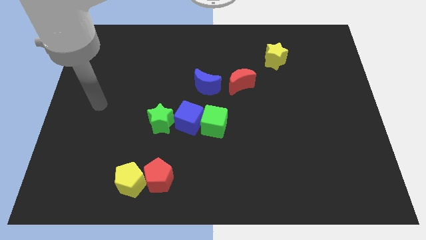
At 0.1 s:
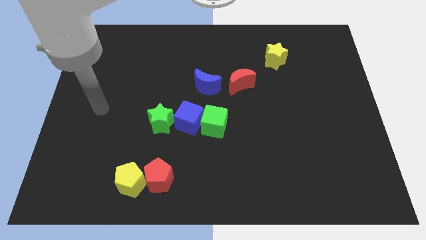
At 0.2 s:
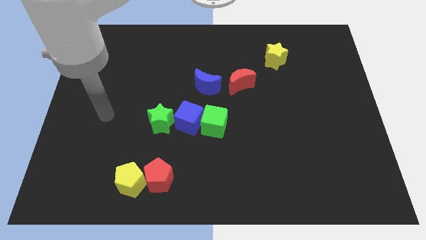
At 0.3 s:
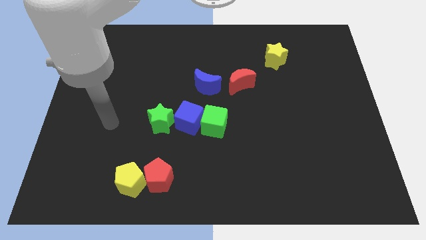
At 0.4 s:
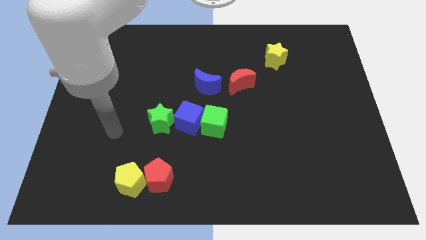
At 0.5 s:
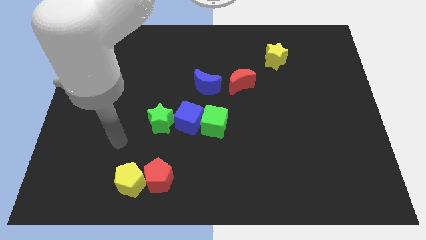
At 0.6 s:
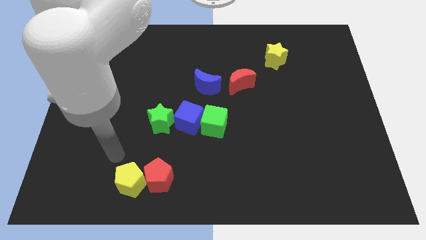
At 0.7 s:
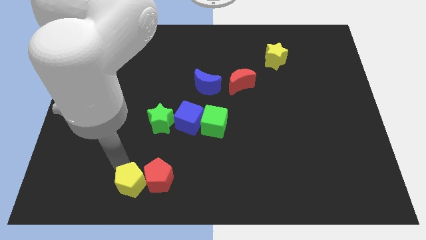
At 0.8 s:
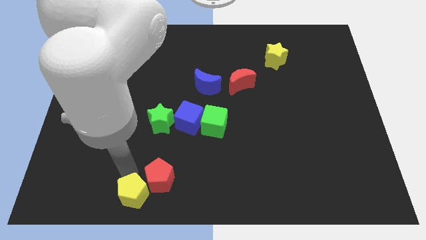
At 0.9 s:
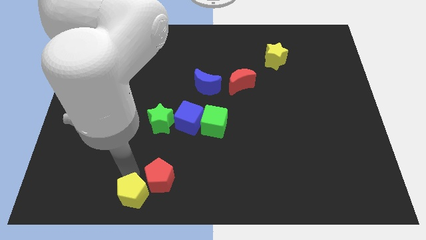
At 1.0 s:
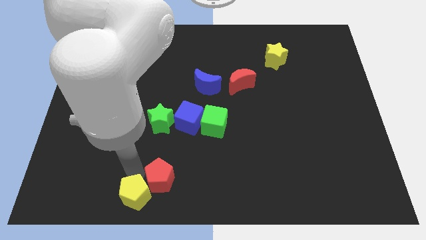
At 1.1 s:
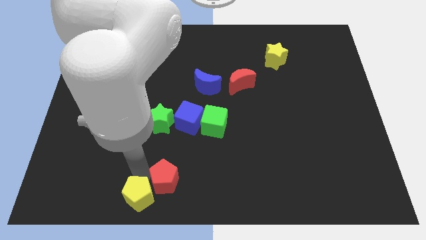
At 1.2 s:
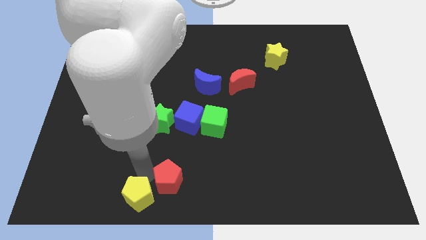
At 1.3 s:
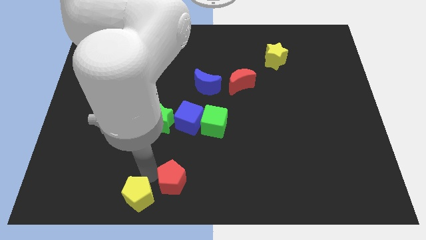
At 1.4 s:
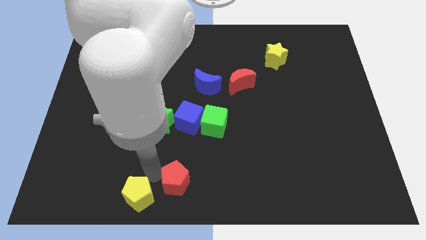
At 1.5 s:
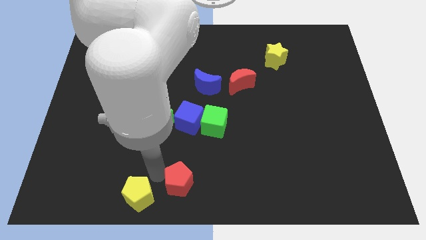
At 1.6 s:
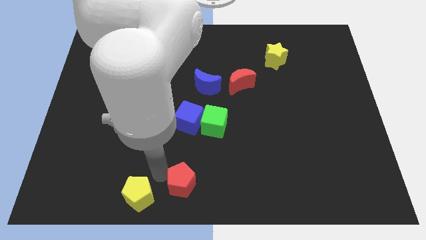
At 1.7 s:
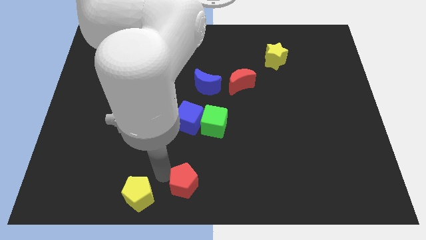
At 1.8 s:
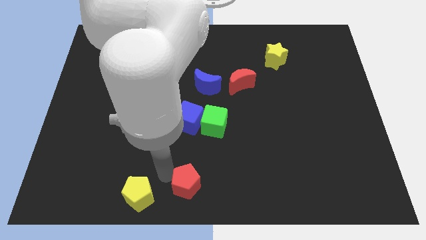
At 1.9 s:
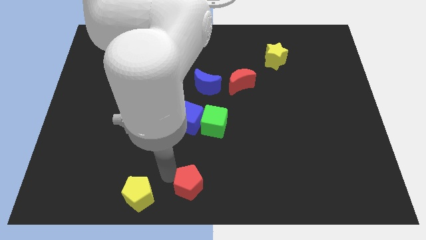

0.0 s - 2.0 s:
separate the red pentagon from the yellow pentagon

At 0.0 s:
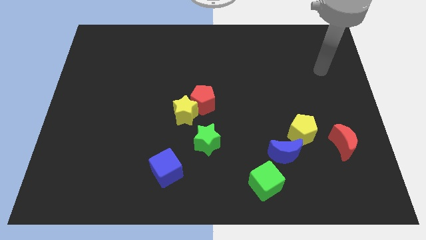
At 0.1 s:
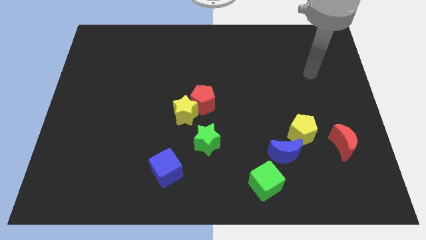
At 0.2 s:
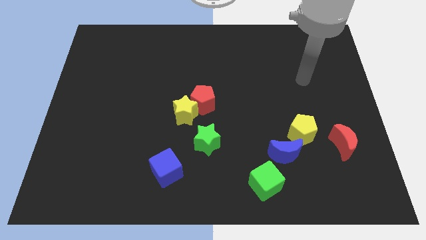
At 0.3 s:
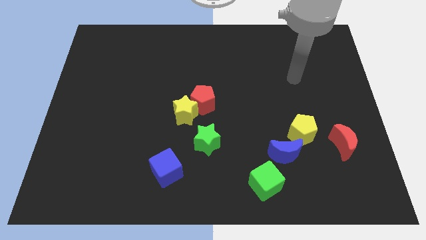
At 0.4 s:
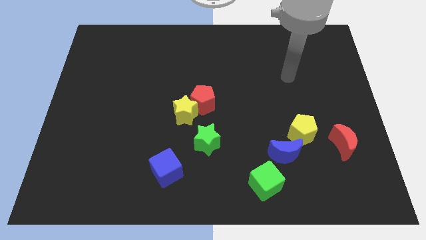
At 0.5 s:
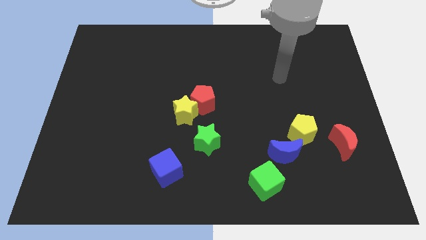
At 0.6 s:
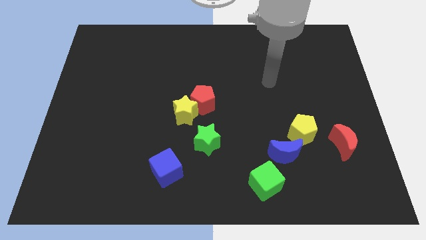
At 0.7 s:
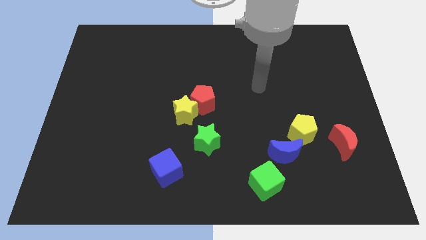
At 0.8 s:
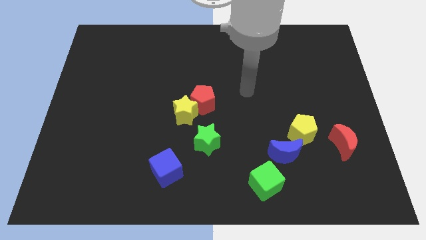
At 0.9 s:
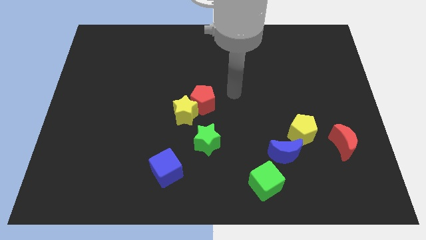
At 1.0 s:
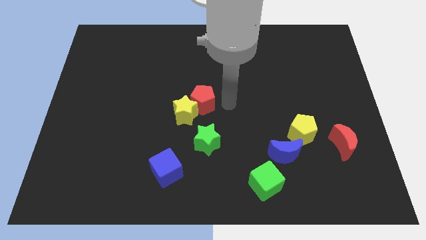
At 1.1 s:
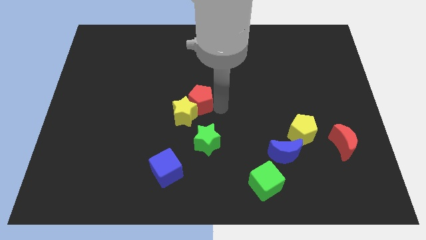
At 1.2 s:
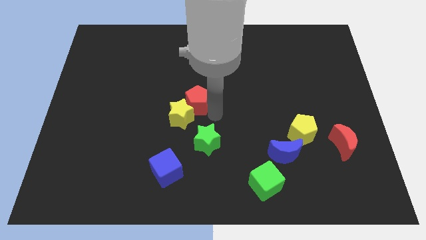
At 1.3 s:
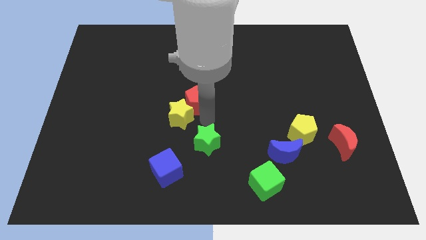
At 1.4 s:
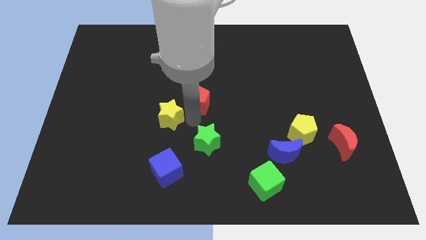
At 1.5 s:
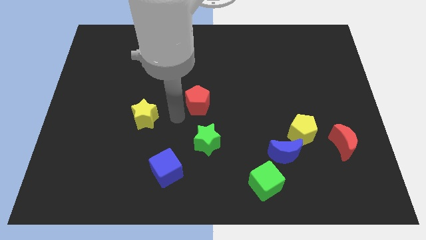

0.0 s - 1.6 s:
separate the red pentagon from the yellow star

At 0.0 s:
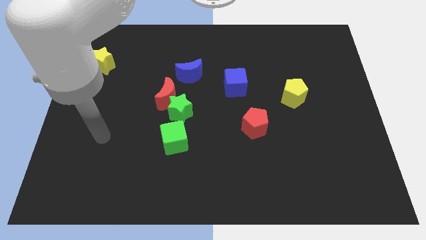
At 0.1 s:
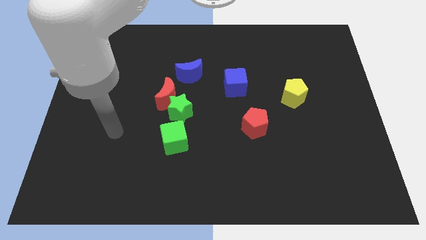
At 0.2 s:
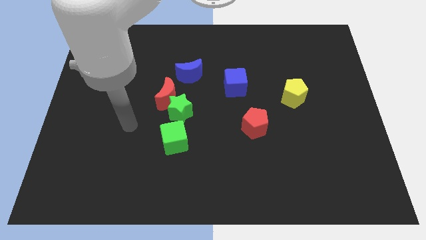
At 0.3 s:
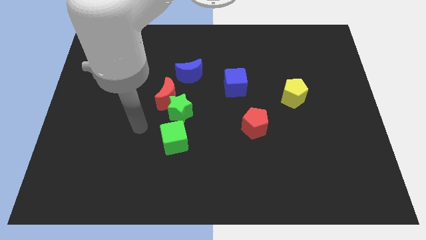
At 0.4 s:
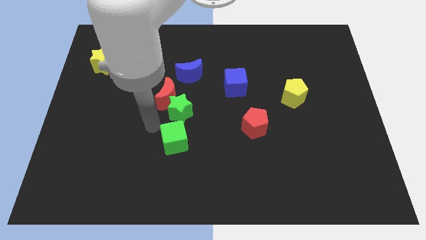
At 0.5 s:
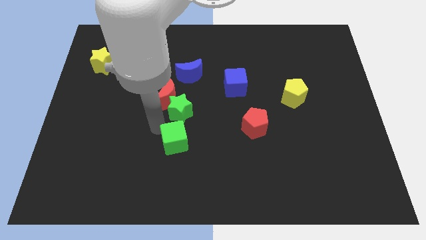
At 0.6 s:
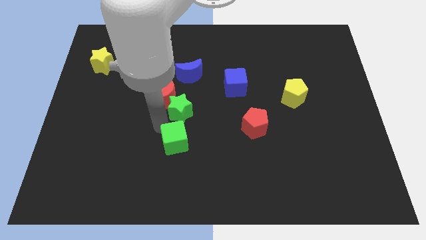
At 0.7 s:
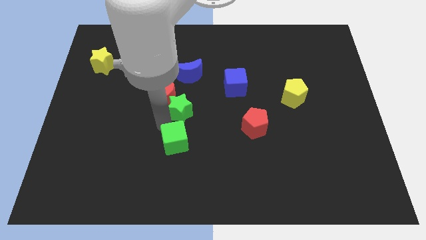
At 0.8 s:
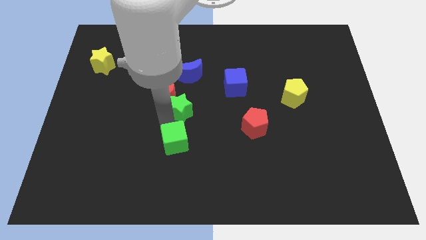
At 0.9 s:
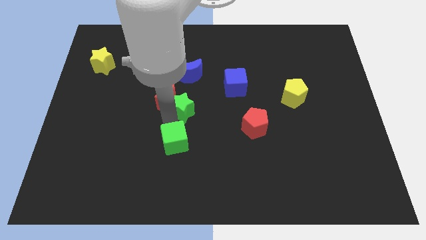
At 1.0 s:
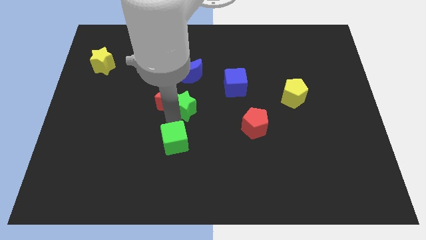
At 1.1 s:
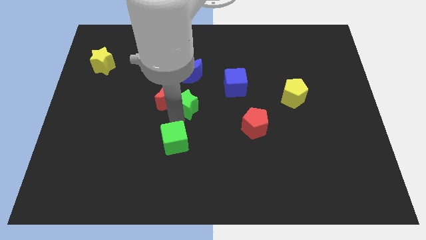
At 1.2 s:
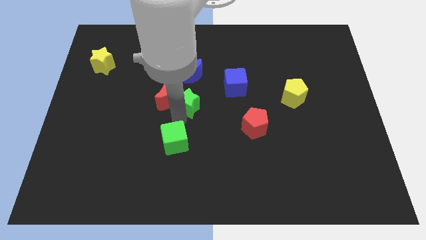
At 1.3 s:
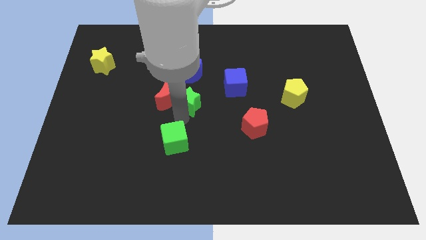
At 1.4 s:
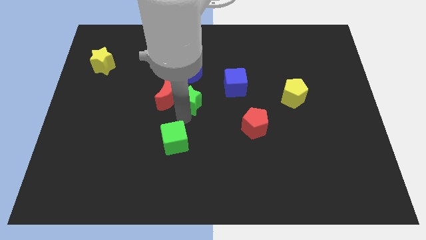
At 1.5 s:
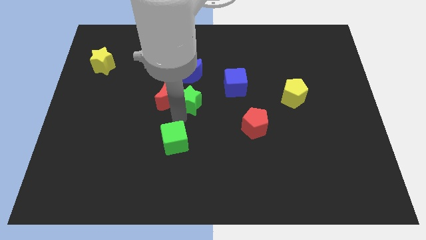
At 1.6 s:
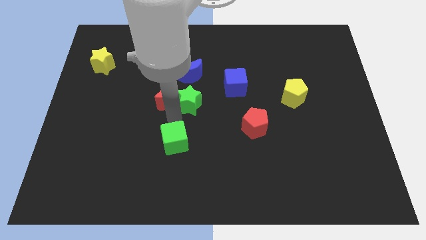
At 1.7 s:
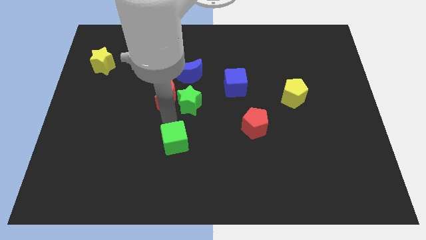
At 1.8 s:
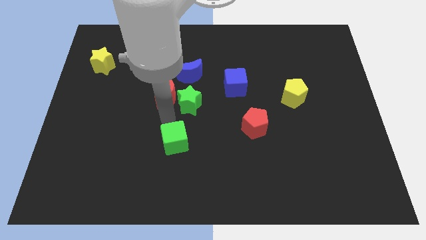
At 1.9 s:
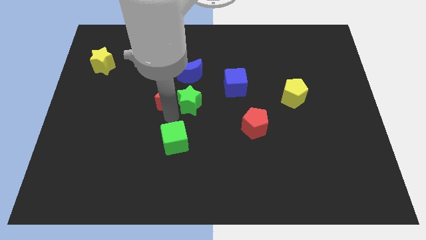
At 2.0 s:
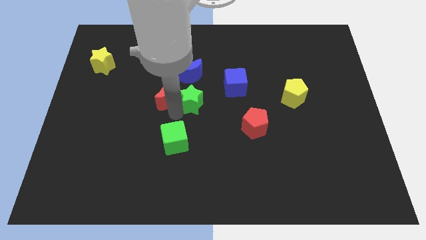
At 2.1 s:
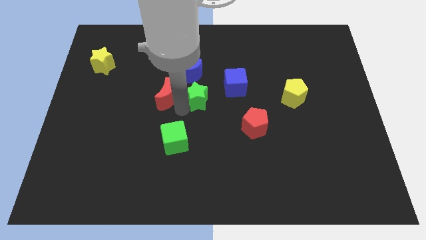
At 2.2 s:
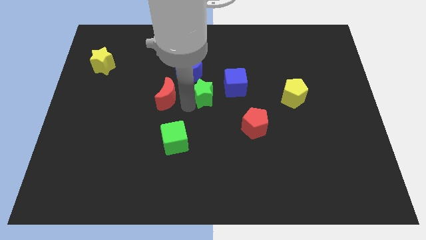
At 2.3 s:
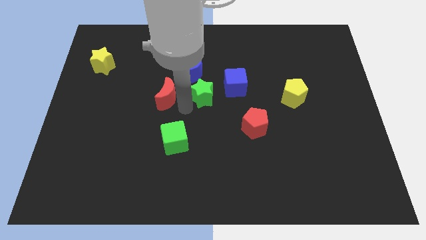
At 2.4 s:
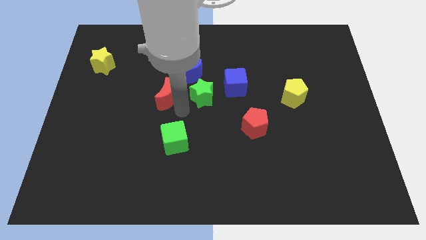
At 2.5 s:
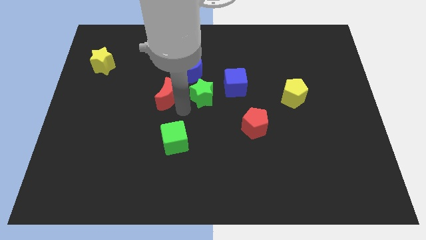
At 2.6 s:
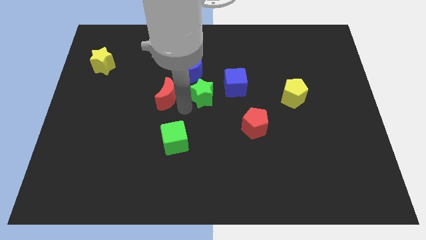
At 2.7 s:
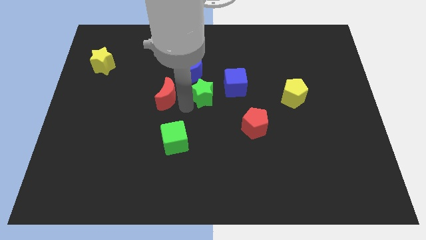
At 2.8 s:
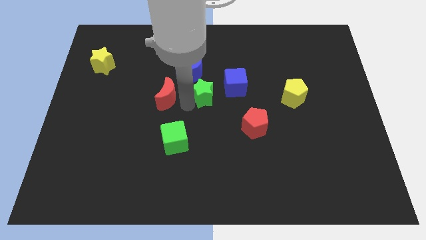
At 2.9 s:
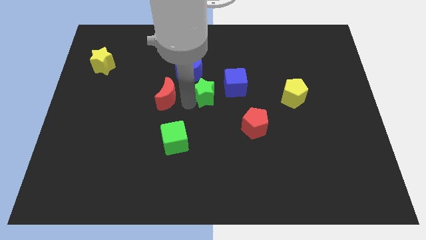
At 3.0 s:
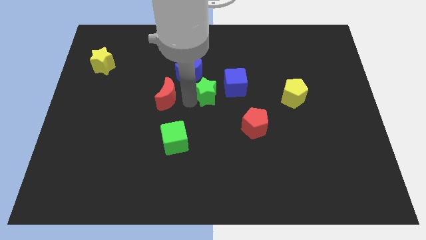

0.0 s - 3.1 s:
pull the green star apart from the red moon and green cube

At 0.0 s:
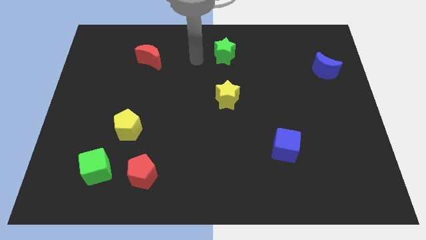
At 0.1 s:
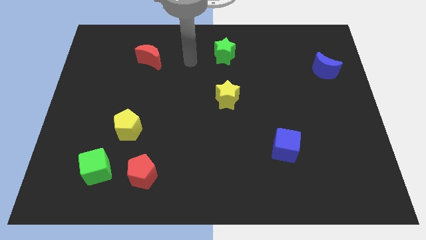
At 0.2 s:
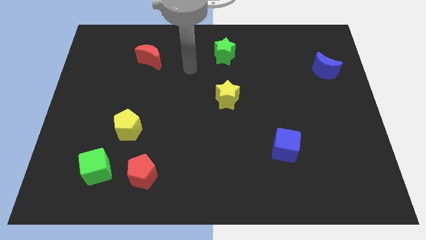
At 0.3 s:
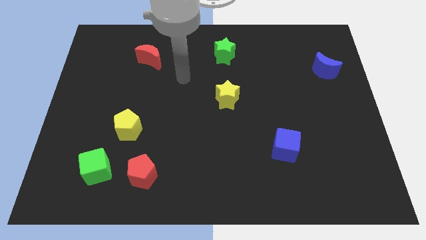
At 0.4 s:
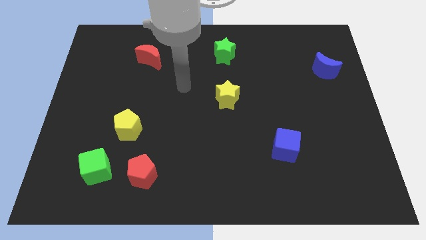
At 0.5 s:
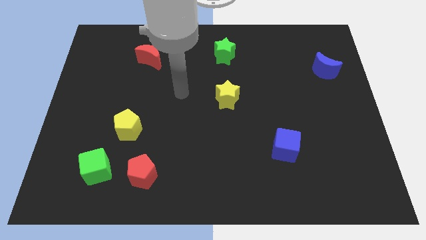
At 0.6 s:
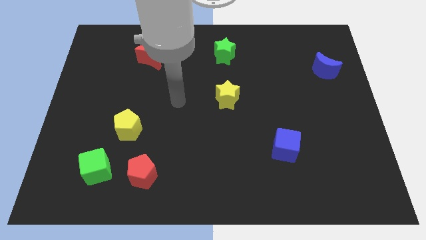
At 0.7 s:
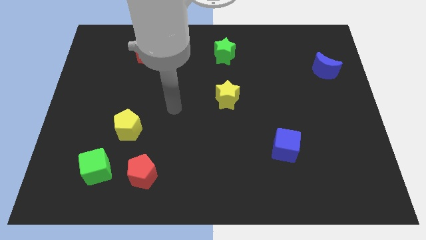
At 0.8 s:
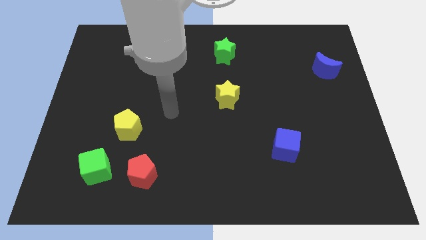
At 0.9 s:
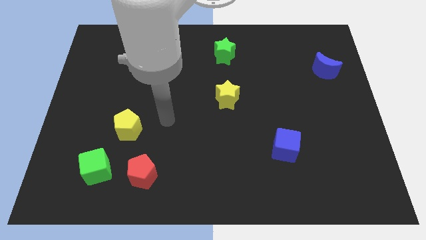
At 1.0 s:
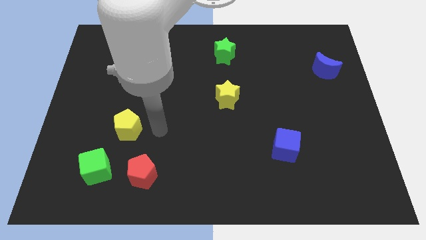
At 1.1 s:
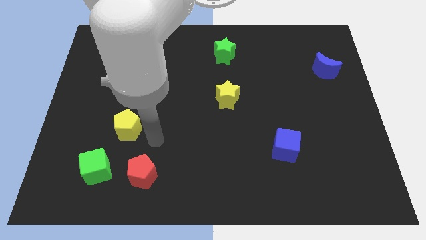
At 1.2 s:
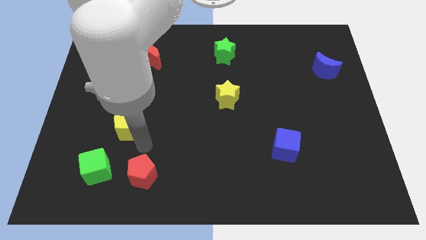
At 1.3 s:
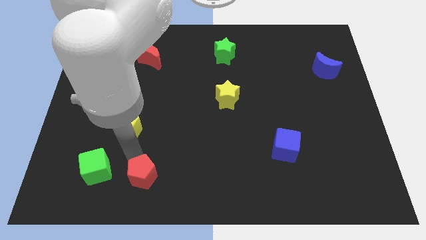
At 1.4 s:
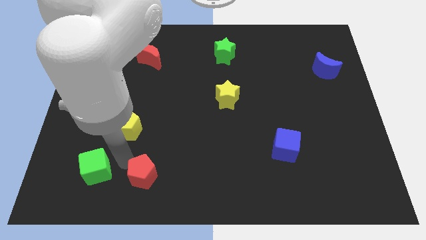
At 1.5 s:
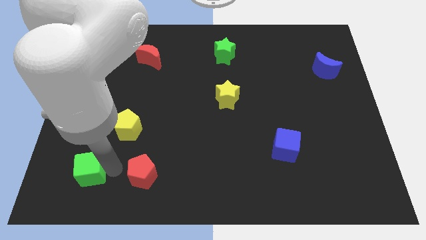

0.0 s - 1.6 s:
move the red pentagon away from the green cube

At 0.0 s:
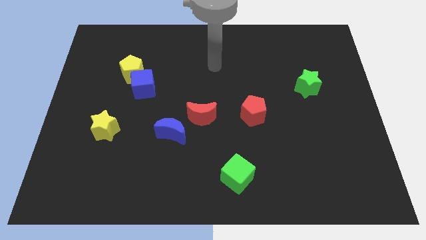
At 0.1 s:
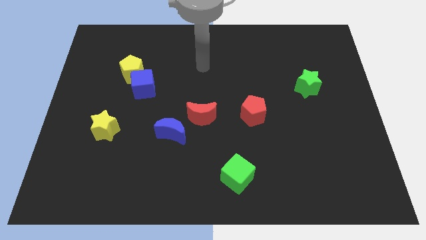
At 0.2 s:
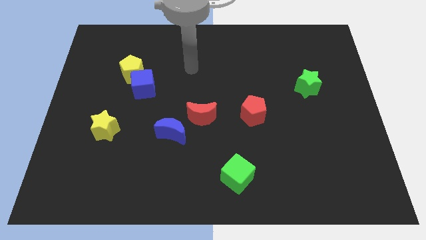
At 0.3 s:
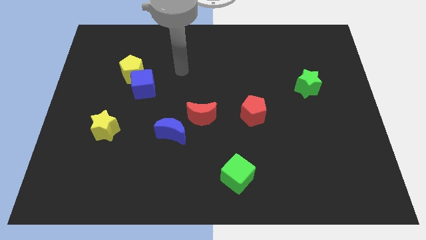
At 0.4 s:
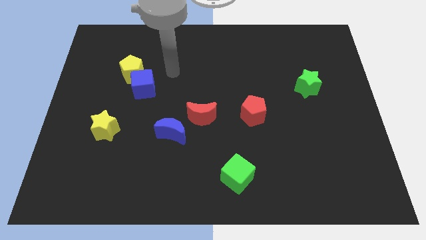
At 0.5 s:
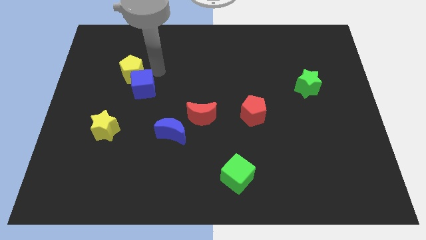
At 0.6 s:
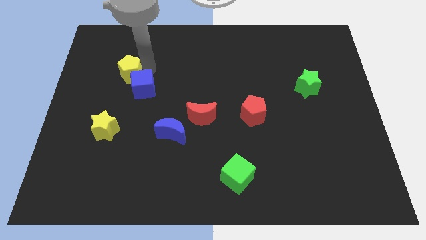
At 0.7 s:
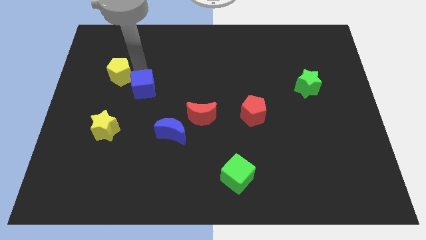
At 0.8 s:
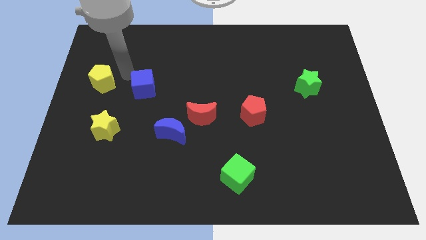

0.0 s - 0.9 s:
pull the blue cube apart from the yellow pentagon
